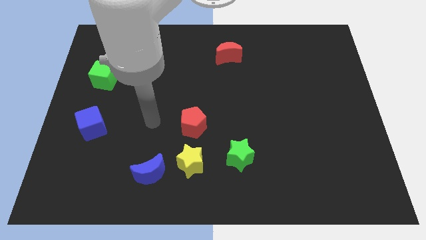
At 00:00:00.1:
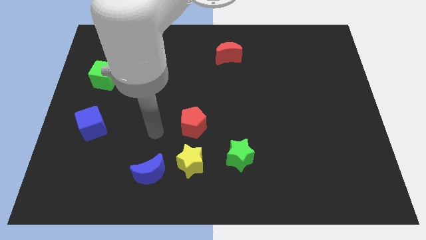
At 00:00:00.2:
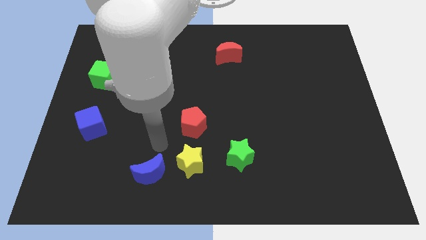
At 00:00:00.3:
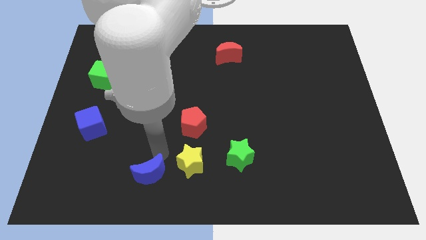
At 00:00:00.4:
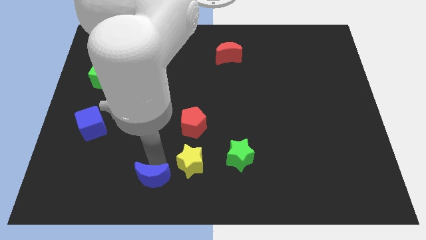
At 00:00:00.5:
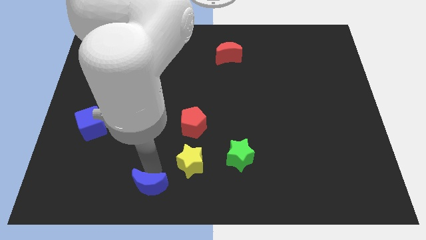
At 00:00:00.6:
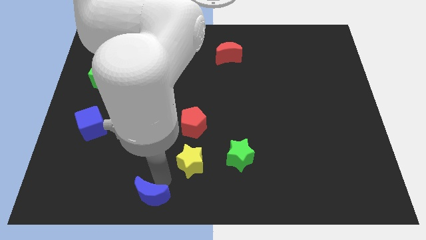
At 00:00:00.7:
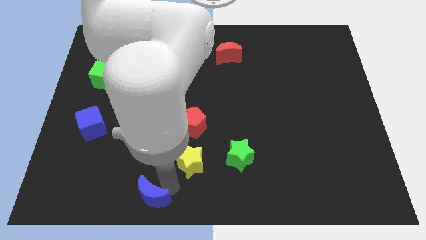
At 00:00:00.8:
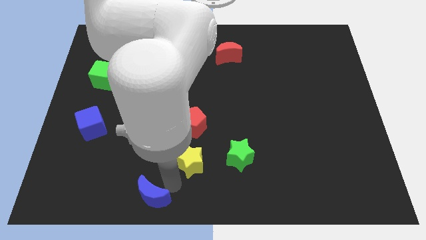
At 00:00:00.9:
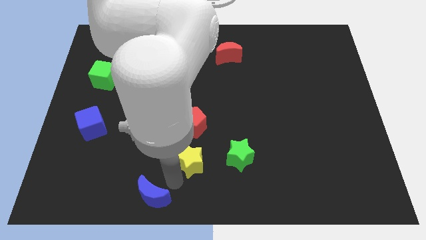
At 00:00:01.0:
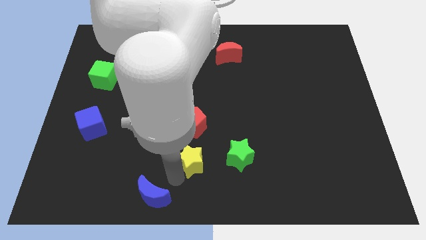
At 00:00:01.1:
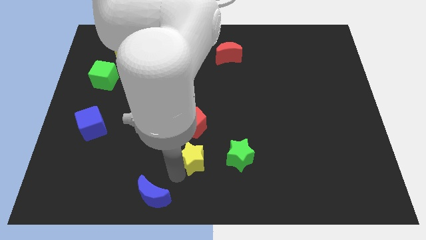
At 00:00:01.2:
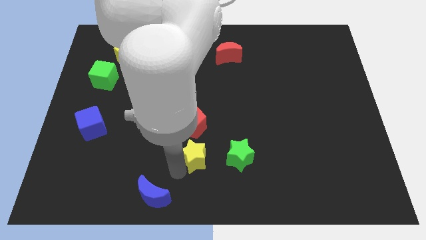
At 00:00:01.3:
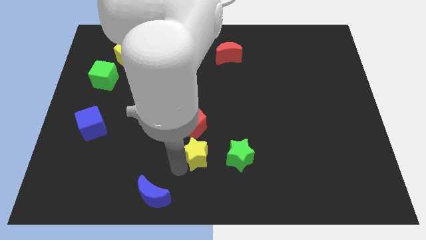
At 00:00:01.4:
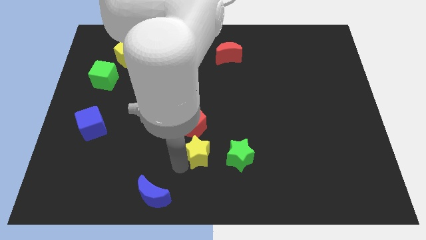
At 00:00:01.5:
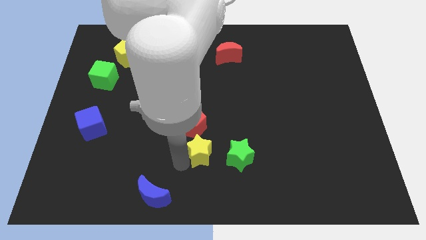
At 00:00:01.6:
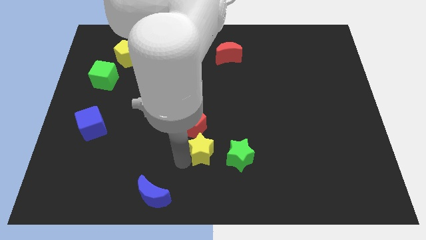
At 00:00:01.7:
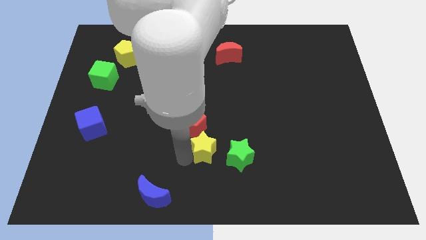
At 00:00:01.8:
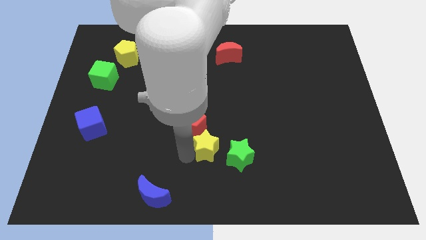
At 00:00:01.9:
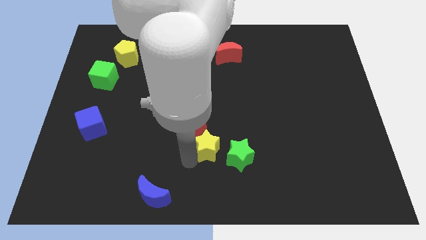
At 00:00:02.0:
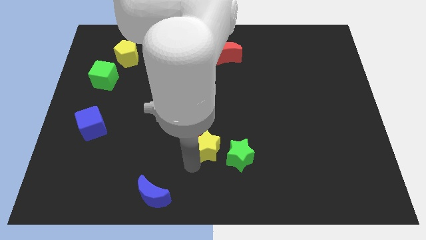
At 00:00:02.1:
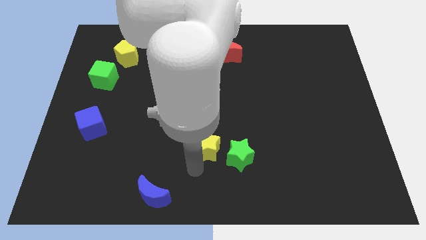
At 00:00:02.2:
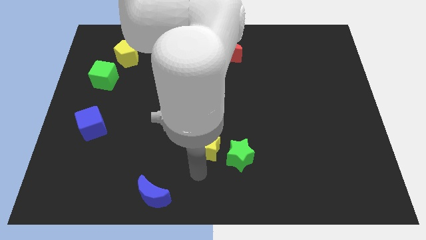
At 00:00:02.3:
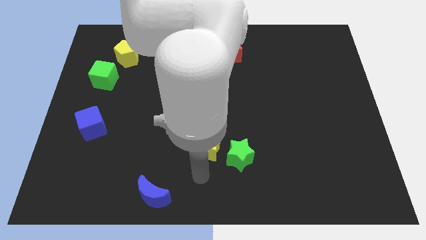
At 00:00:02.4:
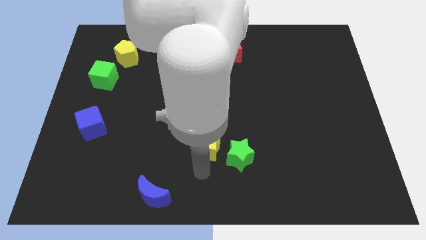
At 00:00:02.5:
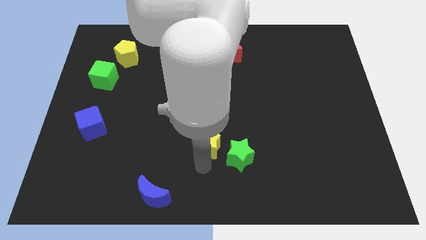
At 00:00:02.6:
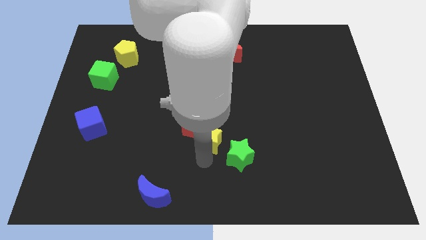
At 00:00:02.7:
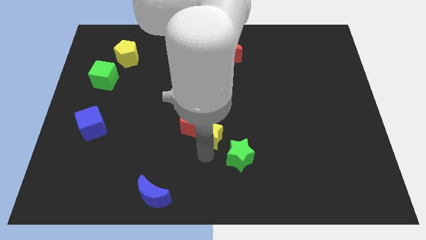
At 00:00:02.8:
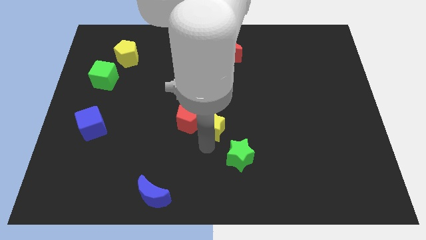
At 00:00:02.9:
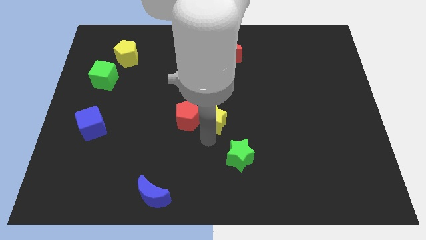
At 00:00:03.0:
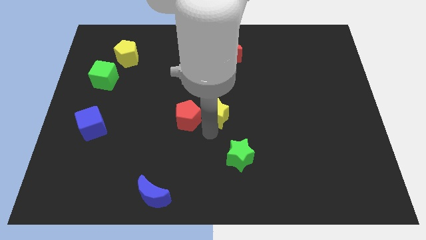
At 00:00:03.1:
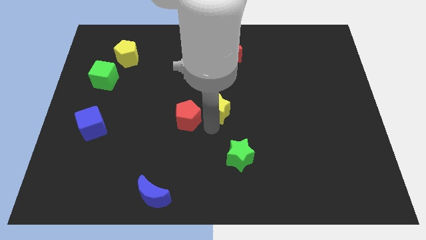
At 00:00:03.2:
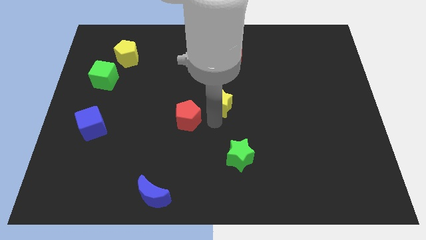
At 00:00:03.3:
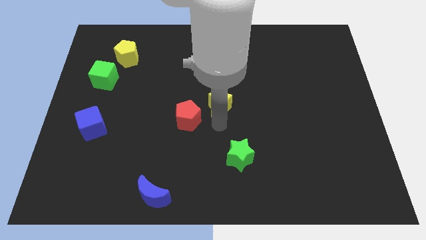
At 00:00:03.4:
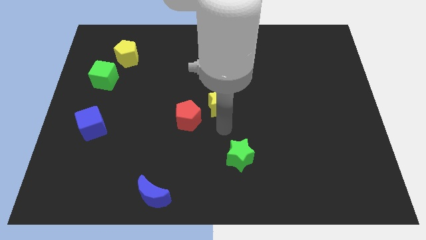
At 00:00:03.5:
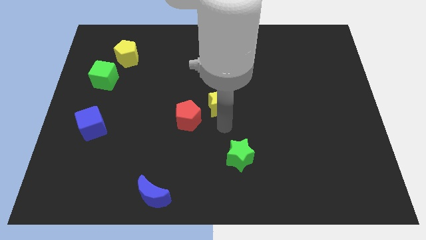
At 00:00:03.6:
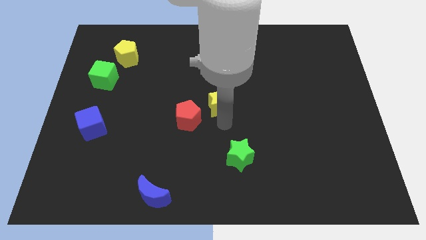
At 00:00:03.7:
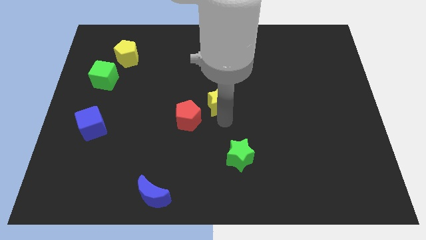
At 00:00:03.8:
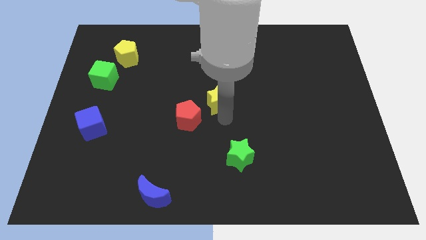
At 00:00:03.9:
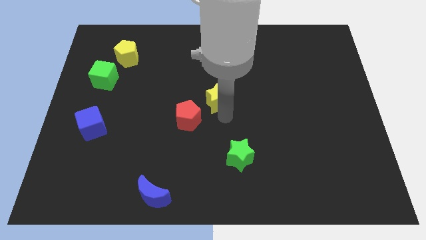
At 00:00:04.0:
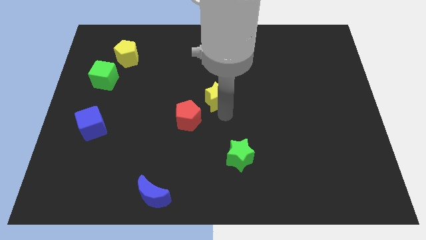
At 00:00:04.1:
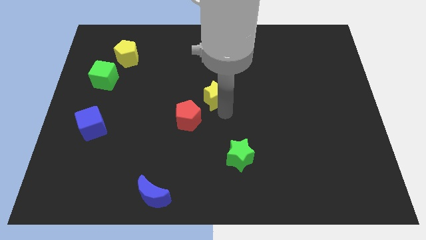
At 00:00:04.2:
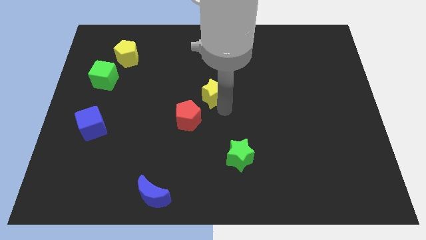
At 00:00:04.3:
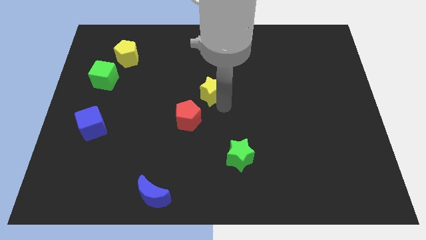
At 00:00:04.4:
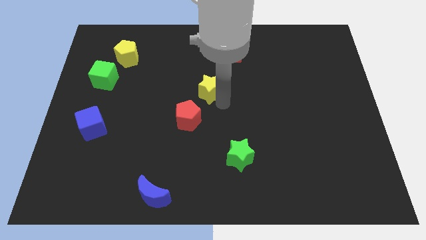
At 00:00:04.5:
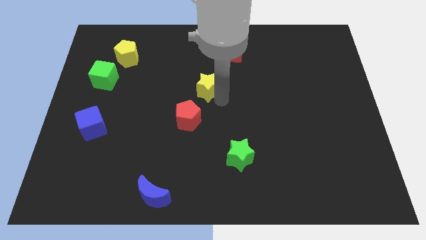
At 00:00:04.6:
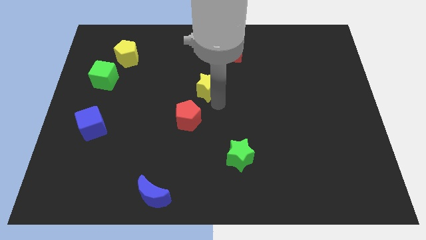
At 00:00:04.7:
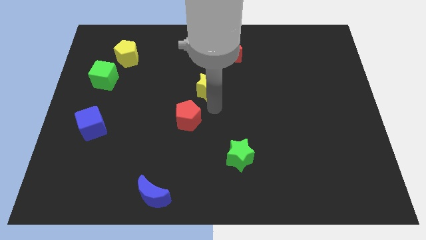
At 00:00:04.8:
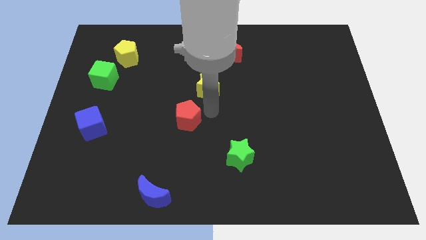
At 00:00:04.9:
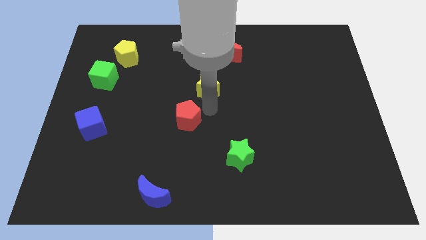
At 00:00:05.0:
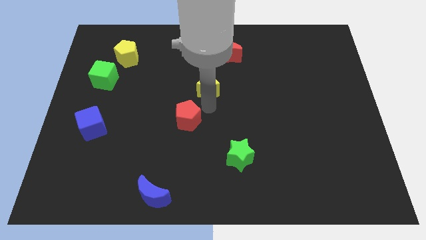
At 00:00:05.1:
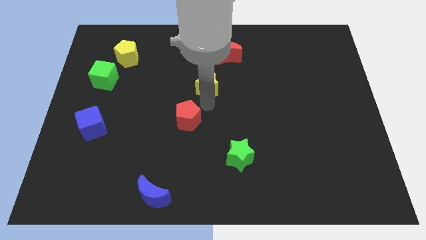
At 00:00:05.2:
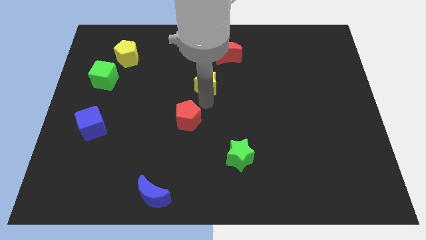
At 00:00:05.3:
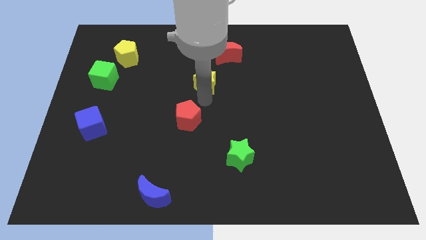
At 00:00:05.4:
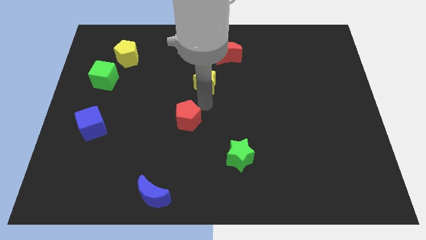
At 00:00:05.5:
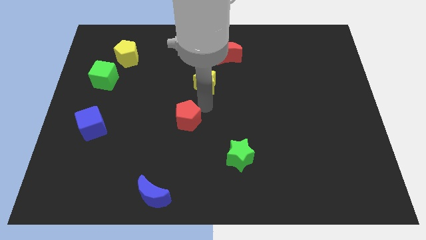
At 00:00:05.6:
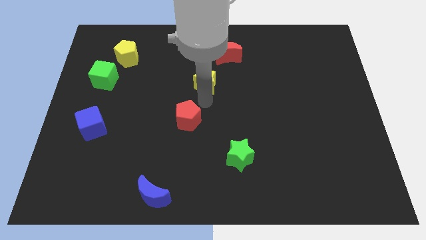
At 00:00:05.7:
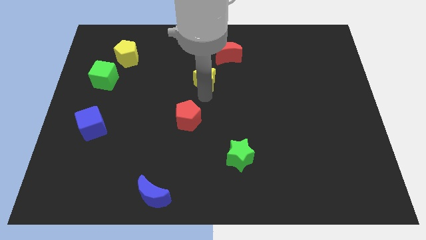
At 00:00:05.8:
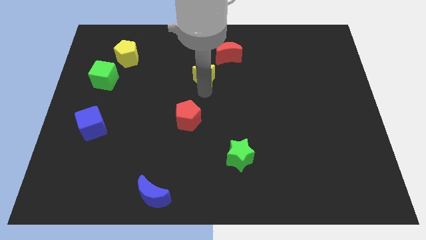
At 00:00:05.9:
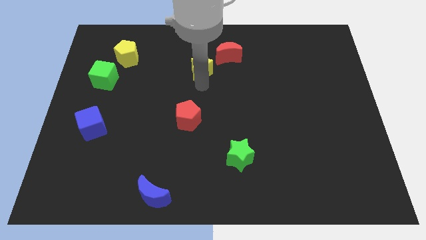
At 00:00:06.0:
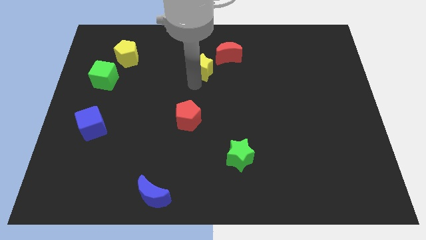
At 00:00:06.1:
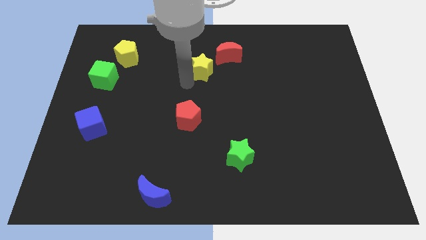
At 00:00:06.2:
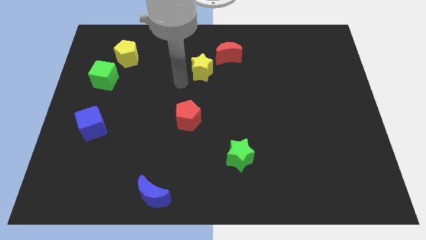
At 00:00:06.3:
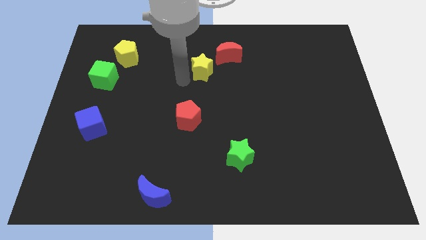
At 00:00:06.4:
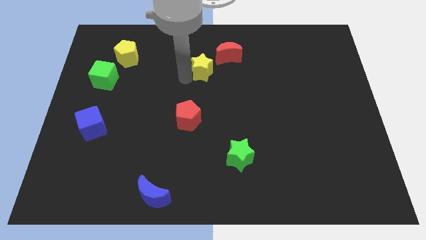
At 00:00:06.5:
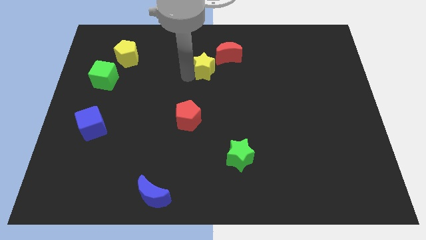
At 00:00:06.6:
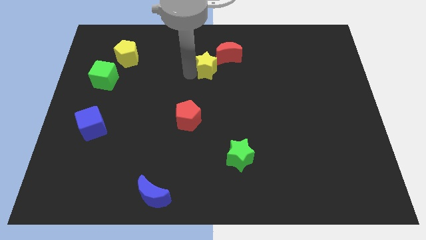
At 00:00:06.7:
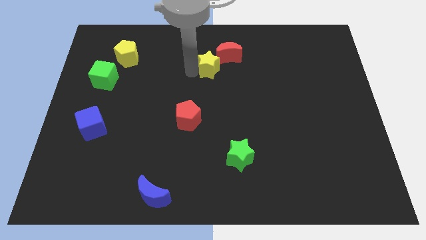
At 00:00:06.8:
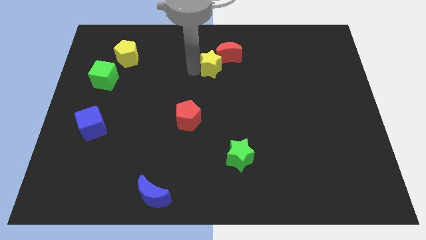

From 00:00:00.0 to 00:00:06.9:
push the yellow star towards the red moon
